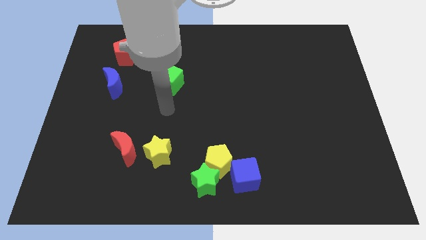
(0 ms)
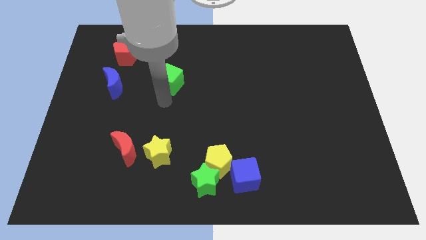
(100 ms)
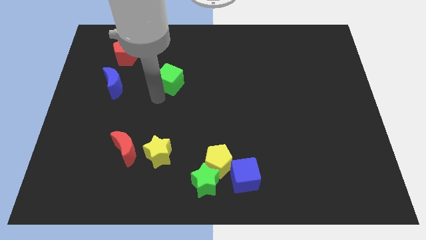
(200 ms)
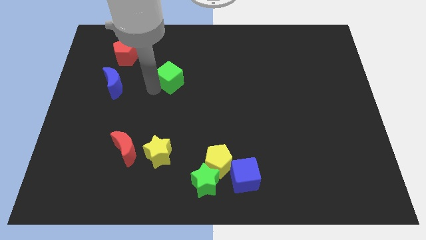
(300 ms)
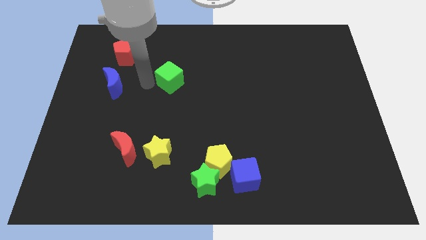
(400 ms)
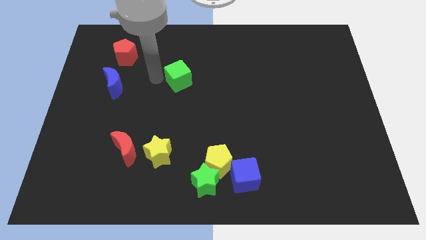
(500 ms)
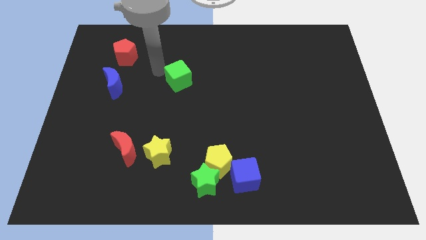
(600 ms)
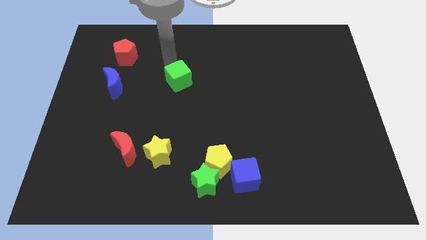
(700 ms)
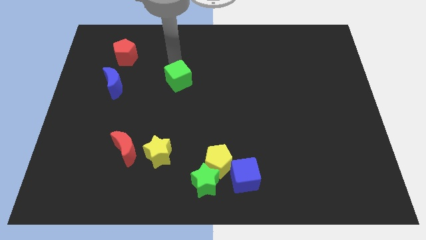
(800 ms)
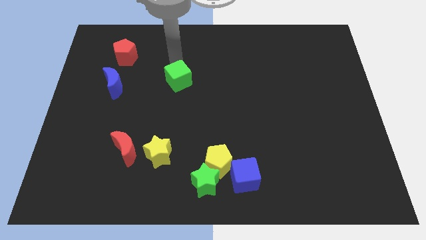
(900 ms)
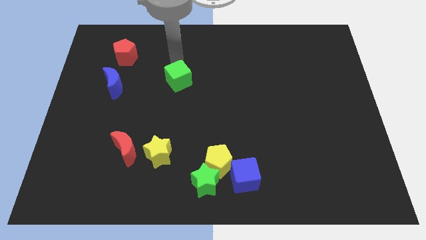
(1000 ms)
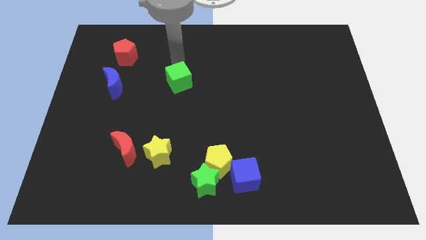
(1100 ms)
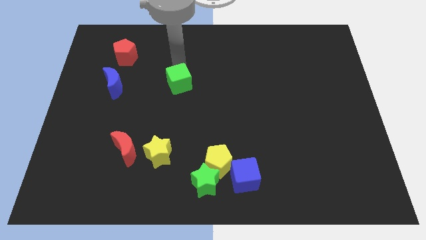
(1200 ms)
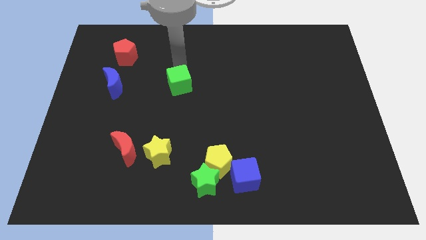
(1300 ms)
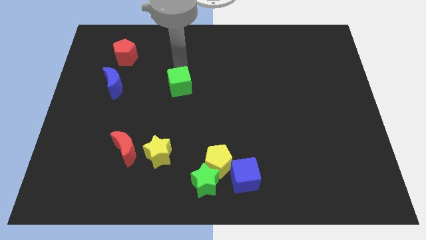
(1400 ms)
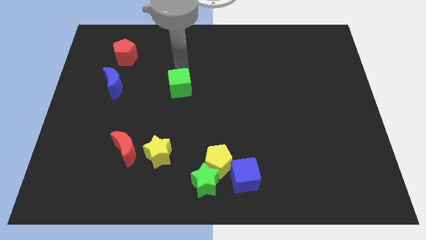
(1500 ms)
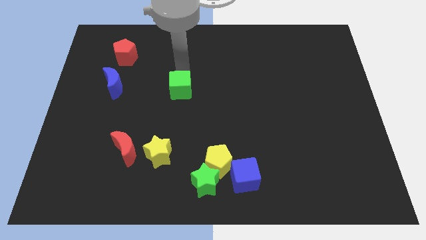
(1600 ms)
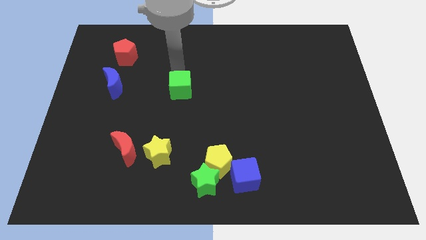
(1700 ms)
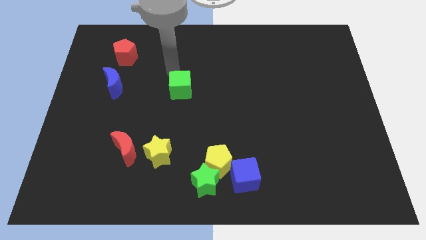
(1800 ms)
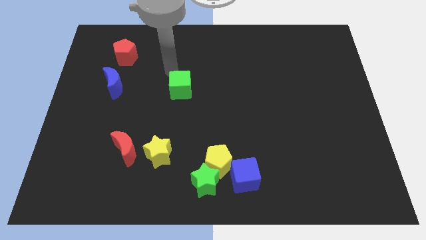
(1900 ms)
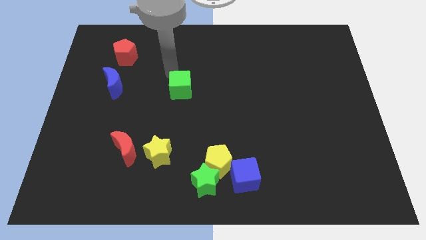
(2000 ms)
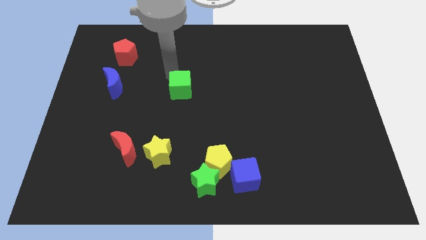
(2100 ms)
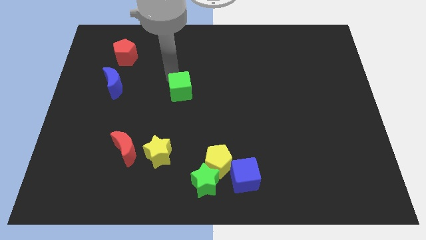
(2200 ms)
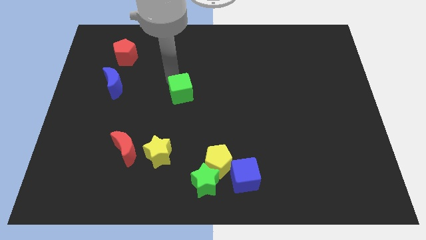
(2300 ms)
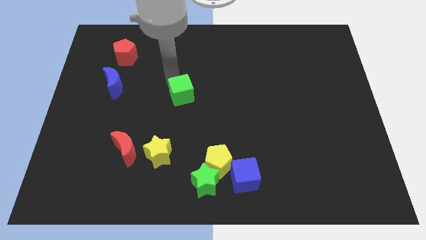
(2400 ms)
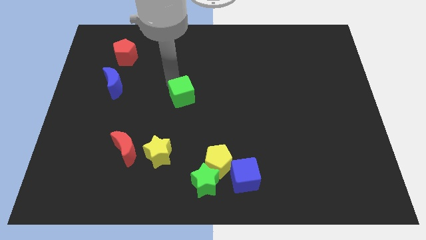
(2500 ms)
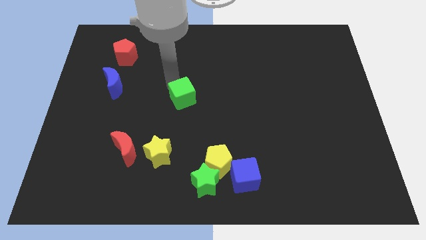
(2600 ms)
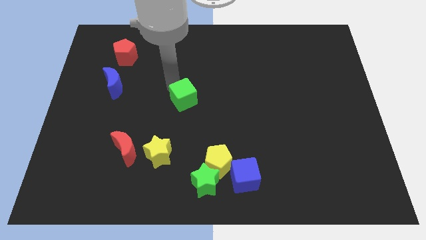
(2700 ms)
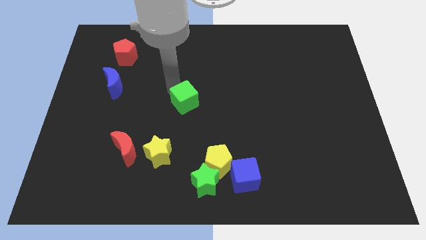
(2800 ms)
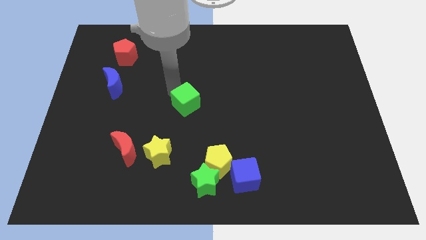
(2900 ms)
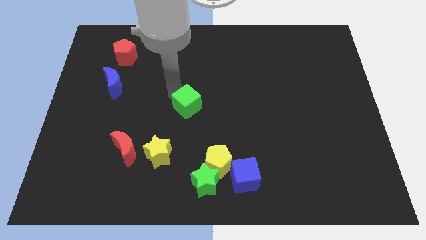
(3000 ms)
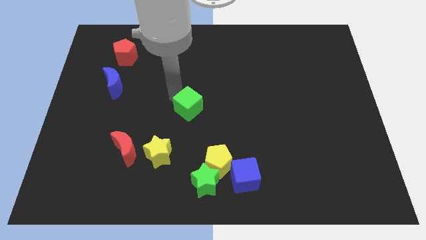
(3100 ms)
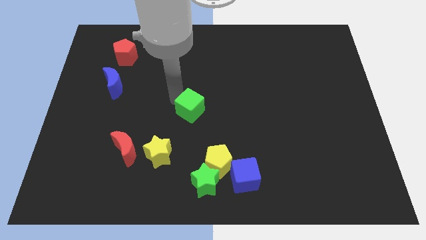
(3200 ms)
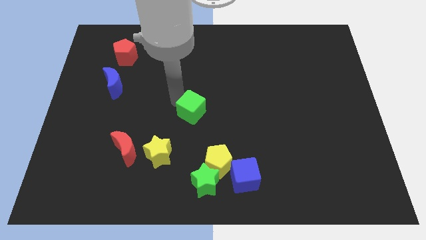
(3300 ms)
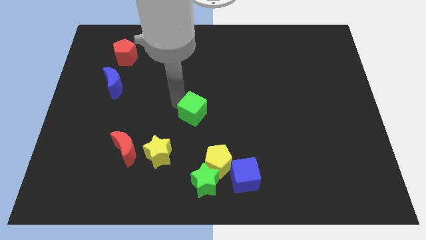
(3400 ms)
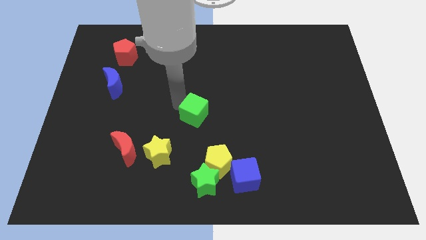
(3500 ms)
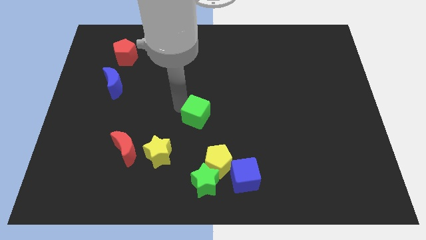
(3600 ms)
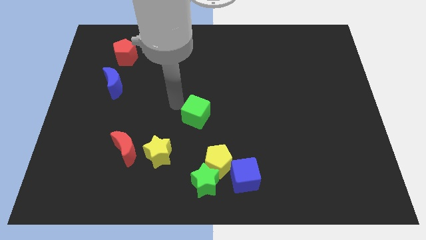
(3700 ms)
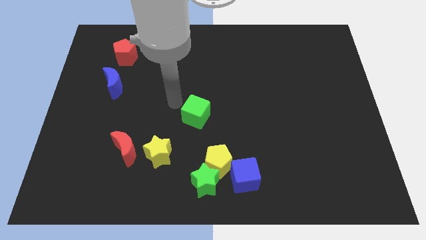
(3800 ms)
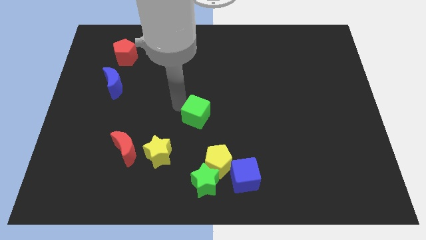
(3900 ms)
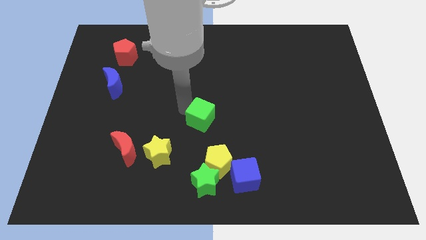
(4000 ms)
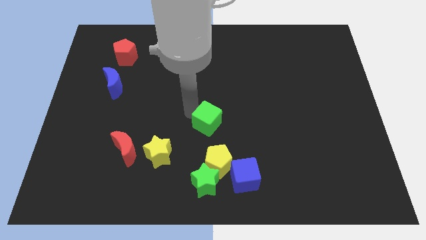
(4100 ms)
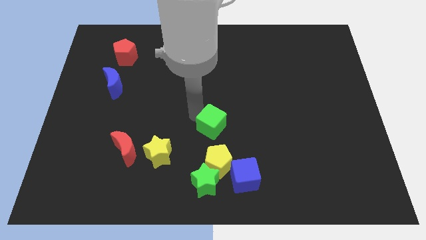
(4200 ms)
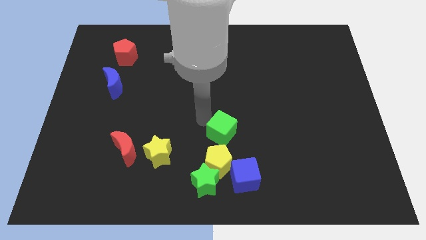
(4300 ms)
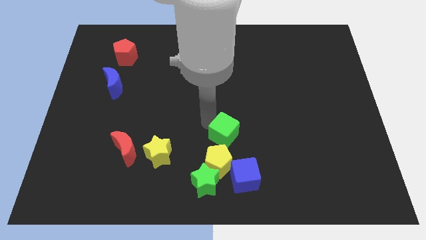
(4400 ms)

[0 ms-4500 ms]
push the green cube diagonally downwards and right

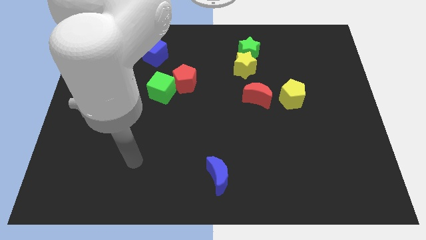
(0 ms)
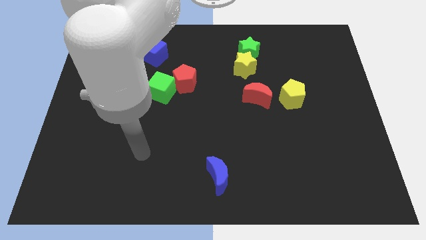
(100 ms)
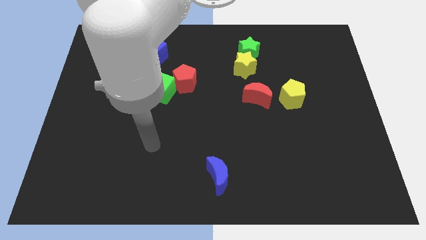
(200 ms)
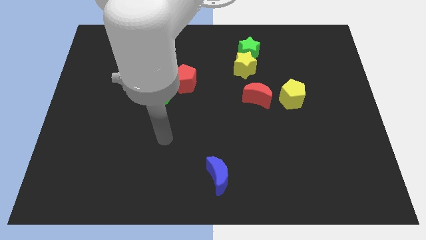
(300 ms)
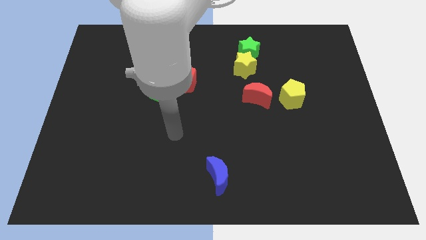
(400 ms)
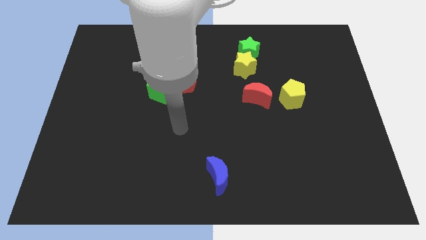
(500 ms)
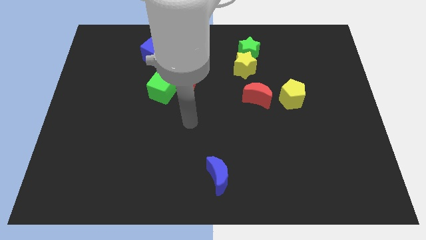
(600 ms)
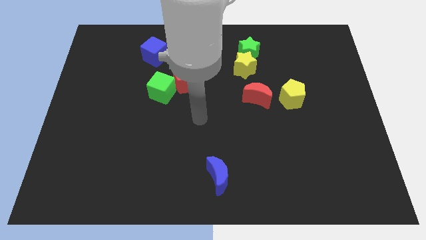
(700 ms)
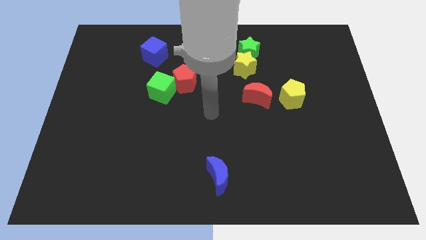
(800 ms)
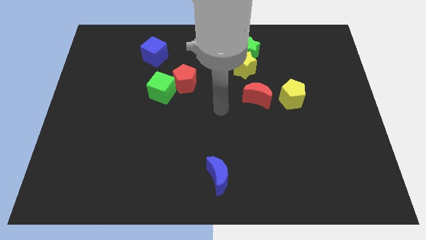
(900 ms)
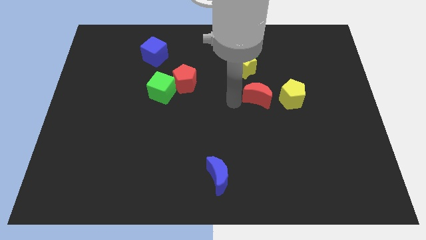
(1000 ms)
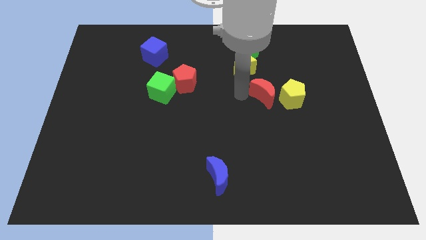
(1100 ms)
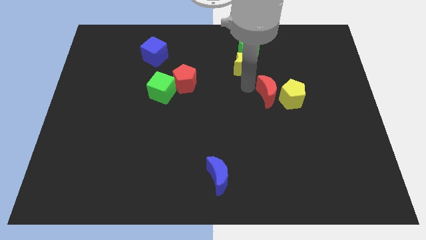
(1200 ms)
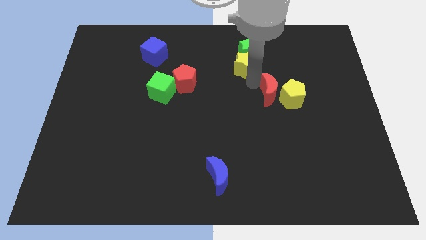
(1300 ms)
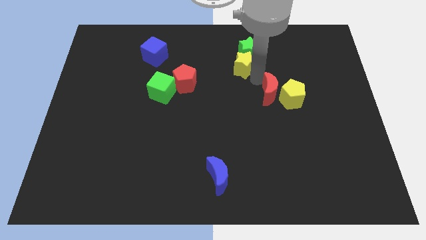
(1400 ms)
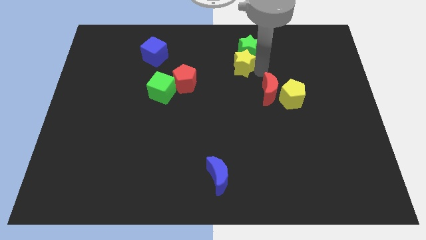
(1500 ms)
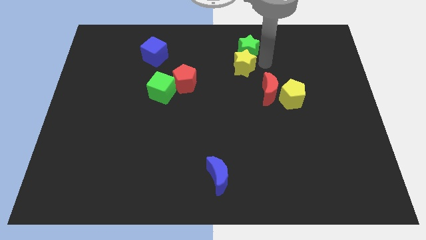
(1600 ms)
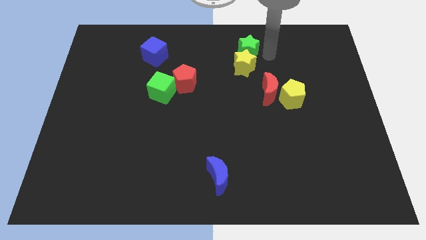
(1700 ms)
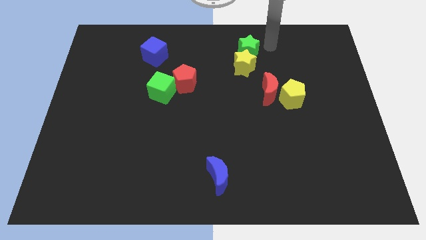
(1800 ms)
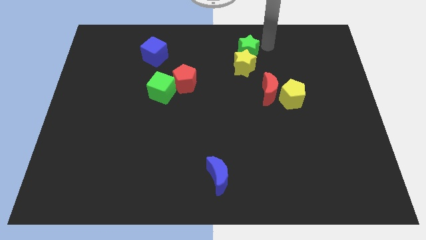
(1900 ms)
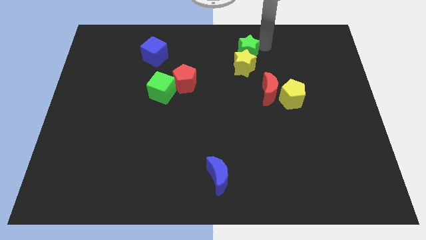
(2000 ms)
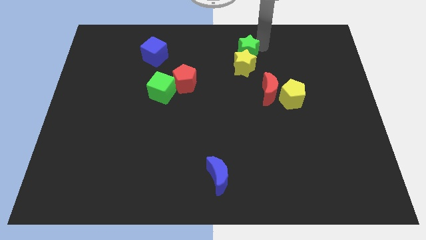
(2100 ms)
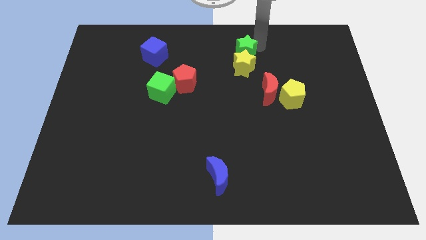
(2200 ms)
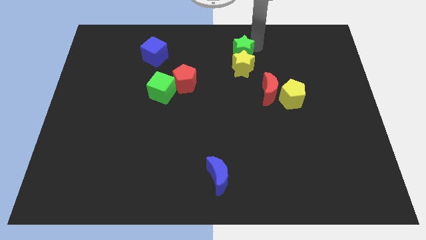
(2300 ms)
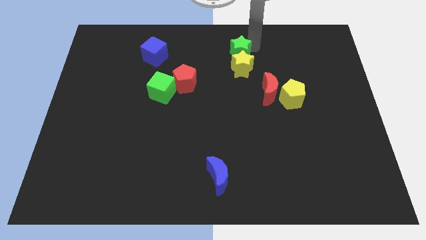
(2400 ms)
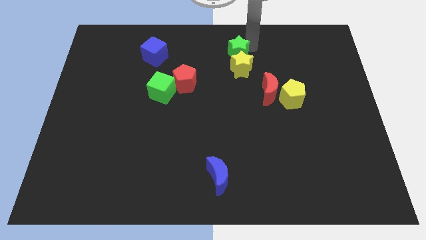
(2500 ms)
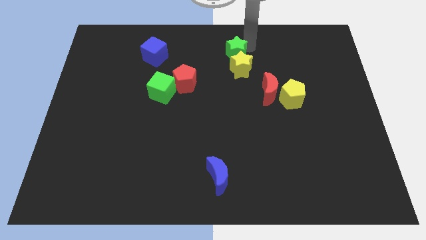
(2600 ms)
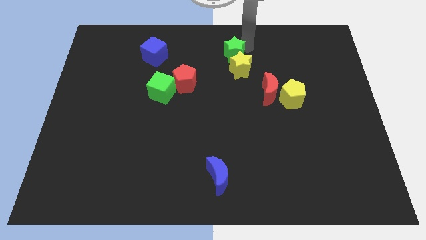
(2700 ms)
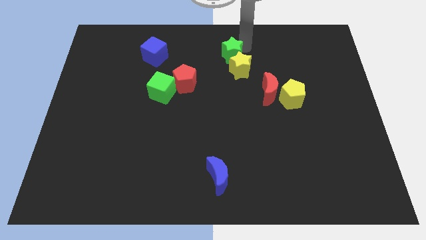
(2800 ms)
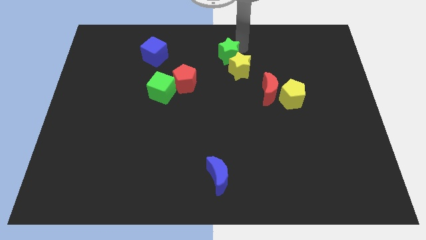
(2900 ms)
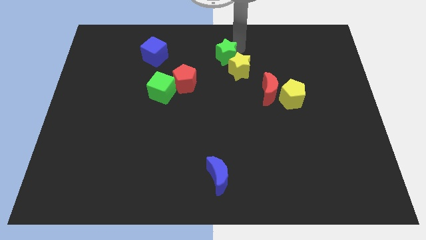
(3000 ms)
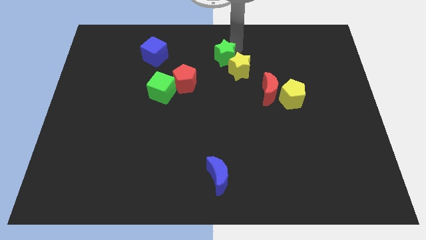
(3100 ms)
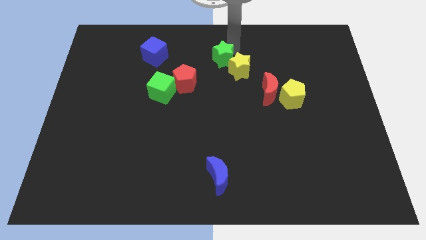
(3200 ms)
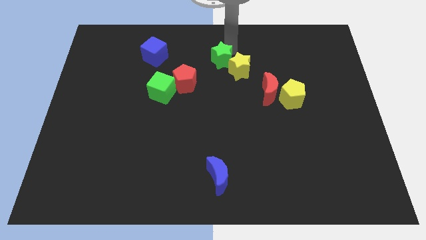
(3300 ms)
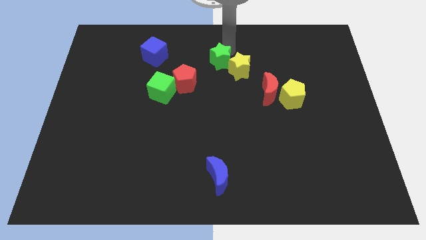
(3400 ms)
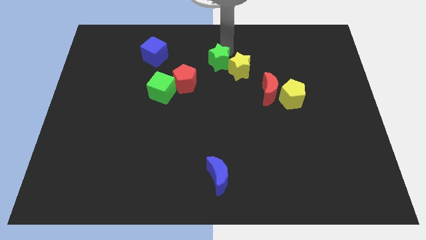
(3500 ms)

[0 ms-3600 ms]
slide the green star a little down and to the left diagonally
